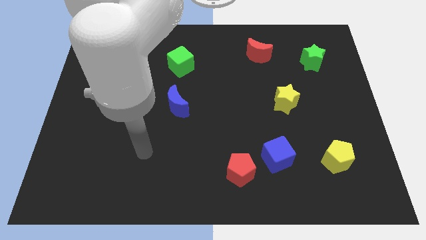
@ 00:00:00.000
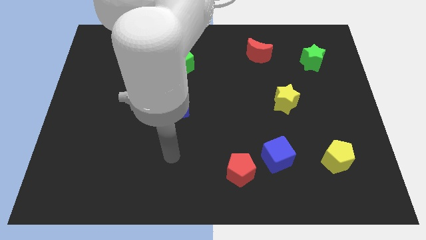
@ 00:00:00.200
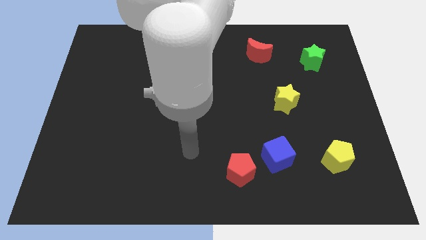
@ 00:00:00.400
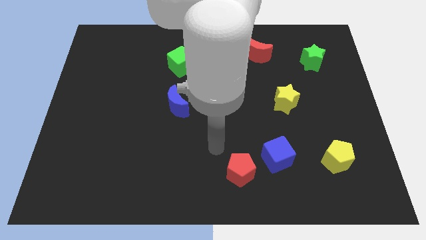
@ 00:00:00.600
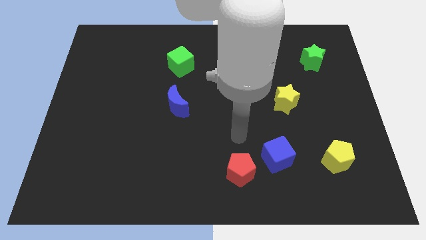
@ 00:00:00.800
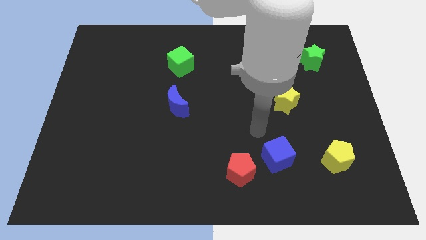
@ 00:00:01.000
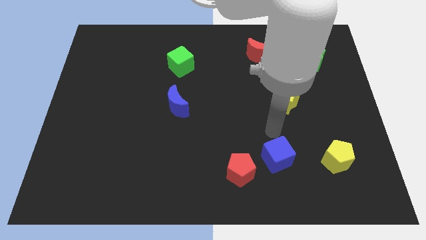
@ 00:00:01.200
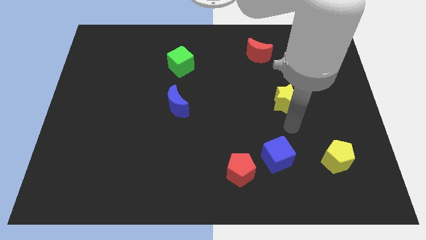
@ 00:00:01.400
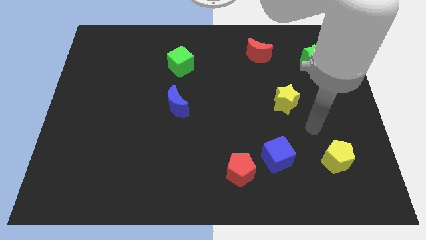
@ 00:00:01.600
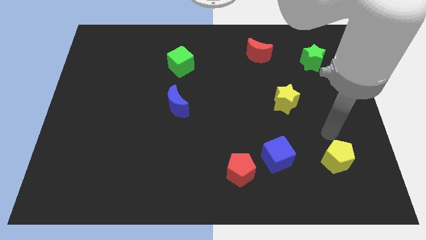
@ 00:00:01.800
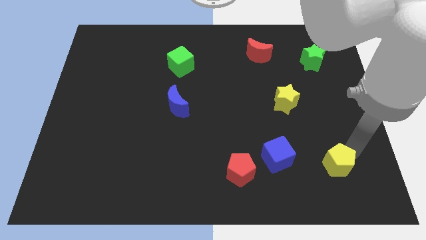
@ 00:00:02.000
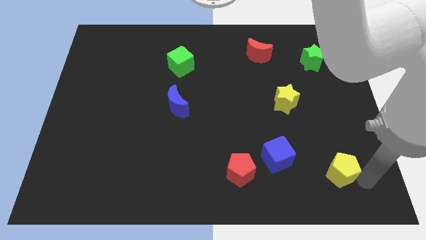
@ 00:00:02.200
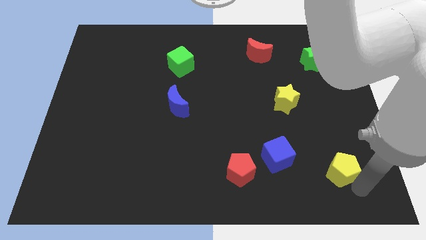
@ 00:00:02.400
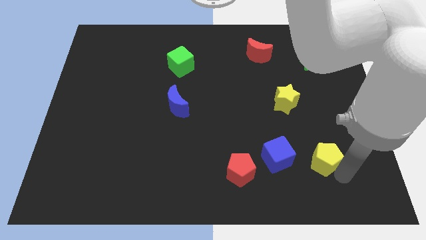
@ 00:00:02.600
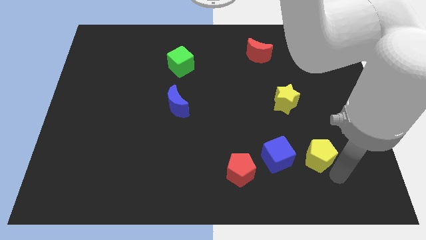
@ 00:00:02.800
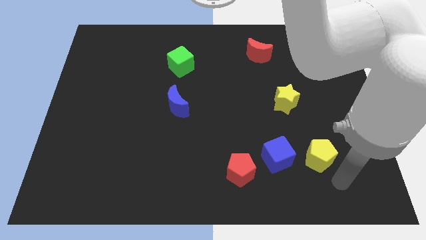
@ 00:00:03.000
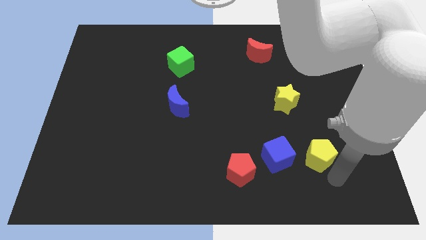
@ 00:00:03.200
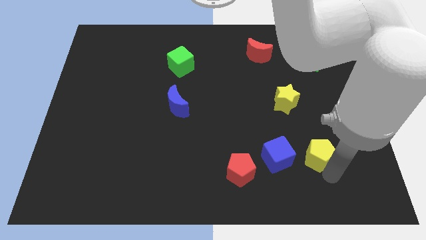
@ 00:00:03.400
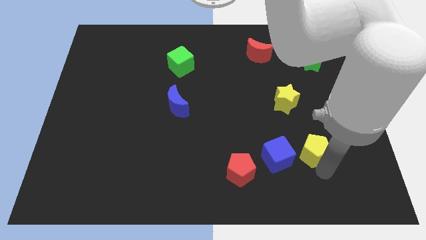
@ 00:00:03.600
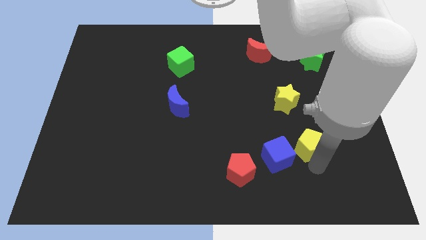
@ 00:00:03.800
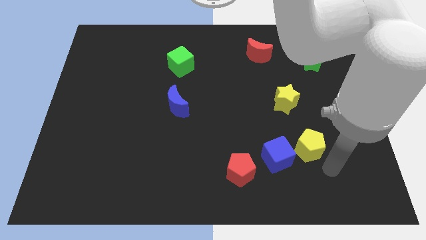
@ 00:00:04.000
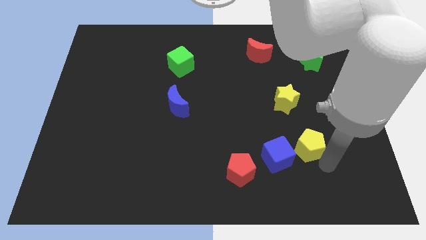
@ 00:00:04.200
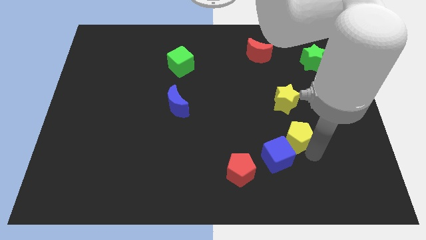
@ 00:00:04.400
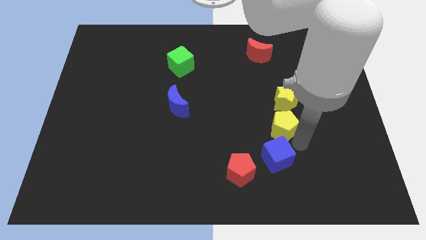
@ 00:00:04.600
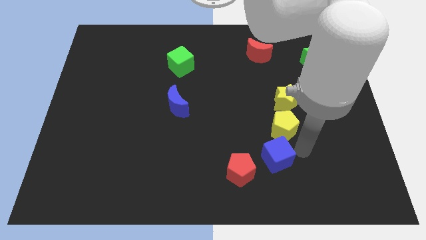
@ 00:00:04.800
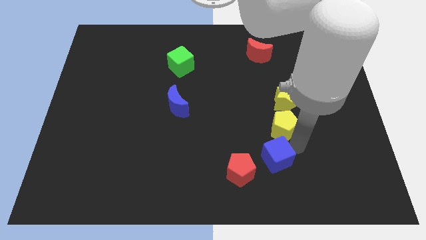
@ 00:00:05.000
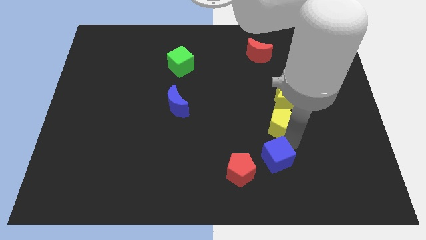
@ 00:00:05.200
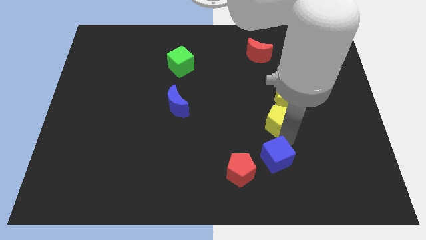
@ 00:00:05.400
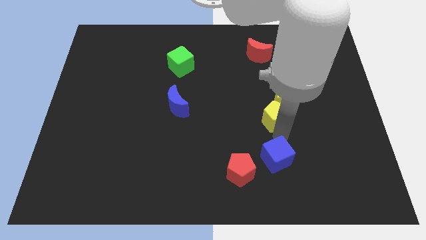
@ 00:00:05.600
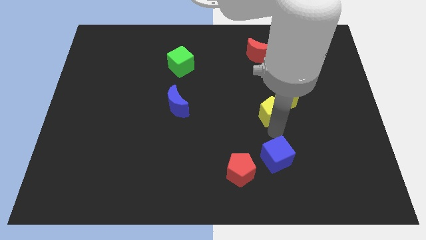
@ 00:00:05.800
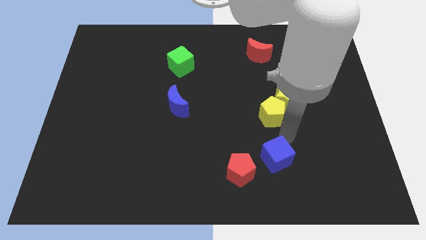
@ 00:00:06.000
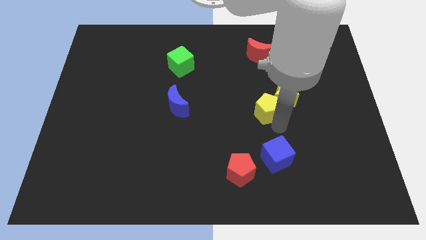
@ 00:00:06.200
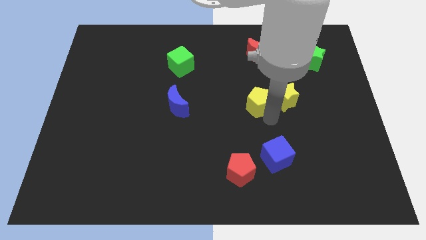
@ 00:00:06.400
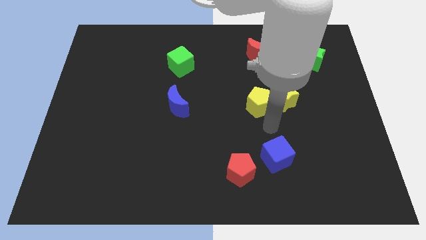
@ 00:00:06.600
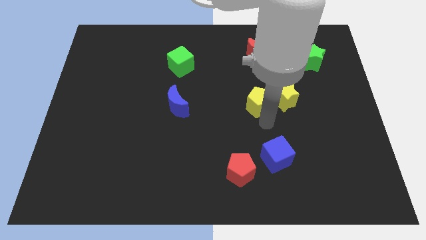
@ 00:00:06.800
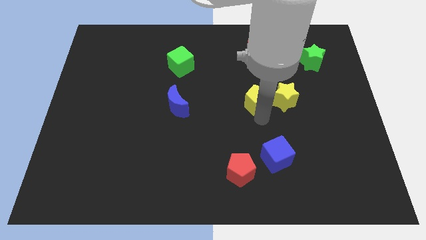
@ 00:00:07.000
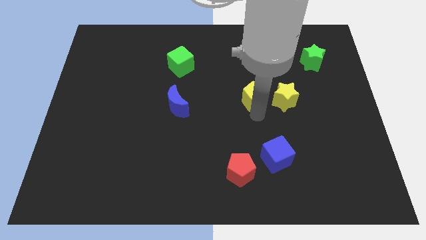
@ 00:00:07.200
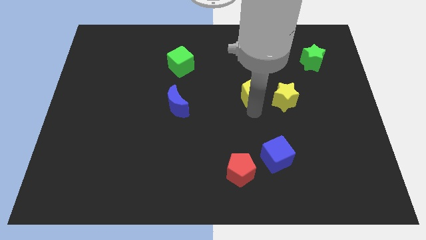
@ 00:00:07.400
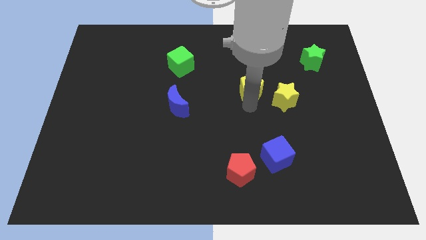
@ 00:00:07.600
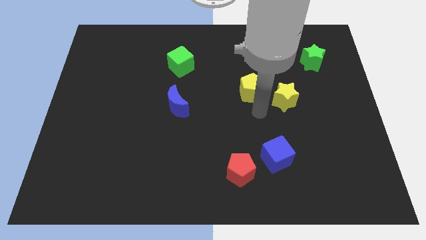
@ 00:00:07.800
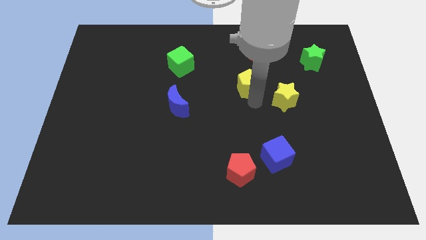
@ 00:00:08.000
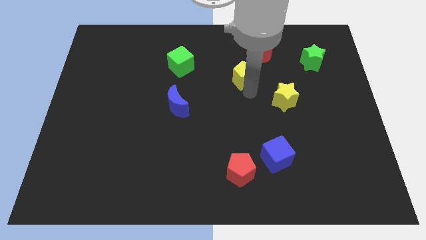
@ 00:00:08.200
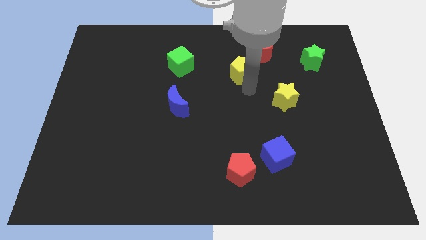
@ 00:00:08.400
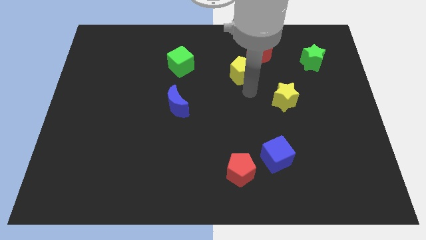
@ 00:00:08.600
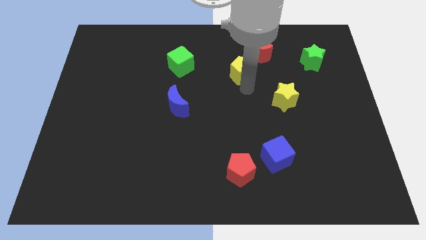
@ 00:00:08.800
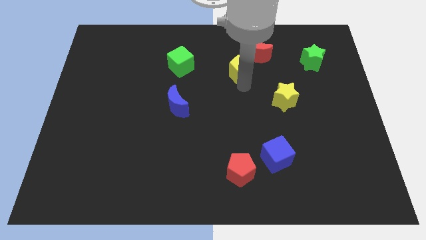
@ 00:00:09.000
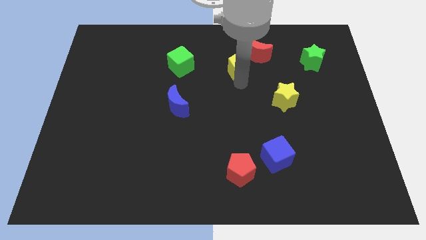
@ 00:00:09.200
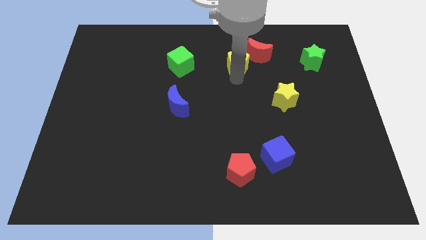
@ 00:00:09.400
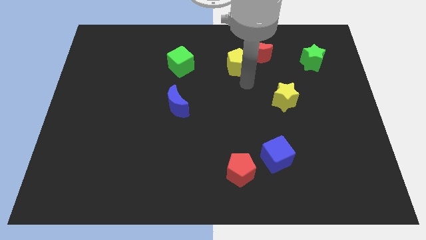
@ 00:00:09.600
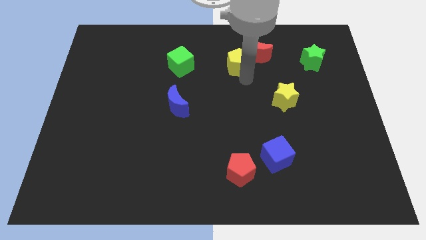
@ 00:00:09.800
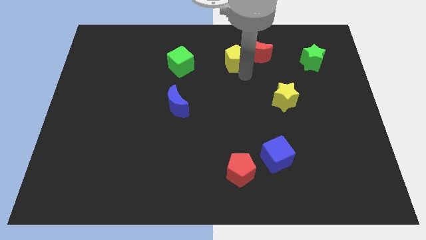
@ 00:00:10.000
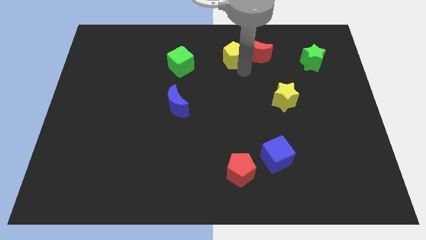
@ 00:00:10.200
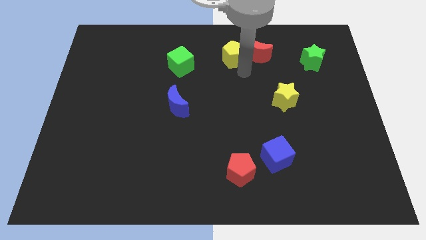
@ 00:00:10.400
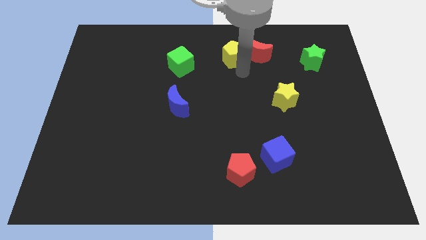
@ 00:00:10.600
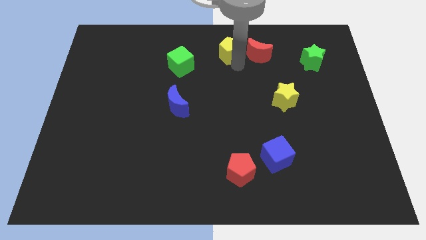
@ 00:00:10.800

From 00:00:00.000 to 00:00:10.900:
move the yellow pentagon to the top
